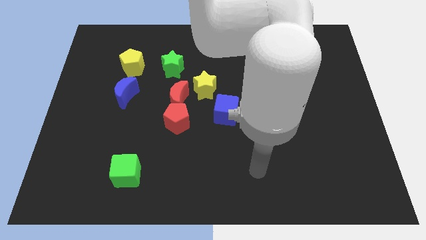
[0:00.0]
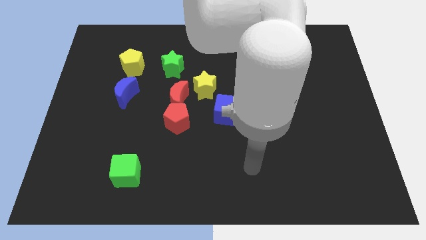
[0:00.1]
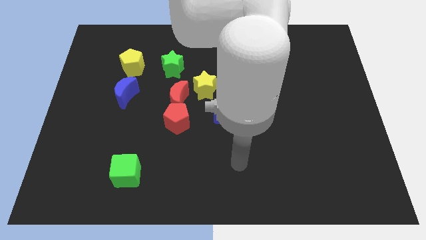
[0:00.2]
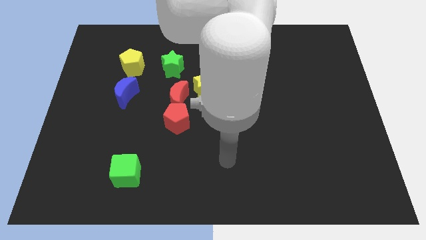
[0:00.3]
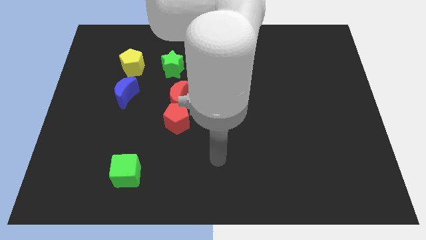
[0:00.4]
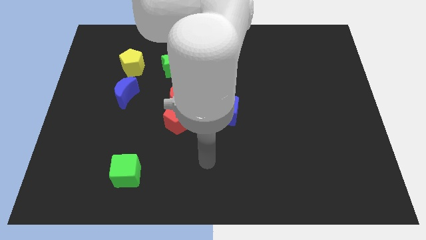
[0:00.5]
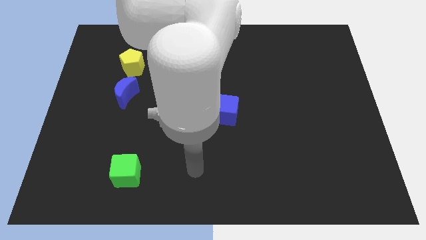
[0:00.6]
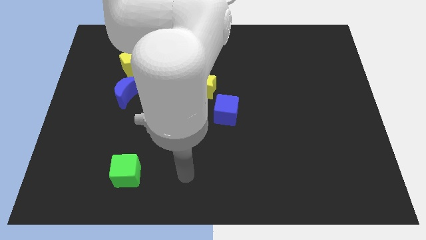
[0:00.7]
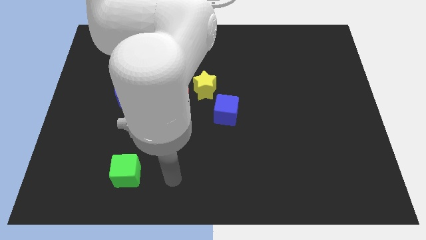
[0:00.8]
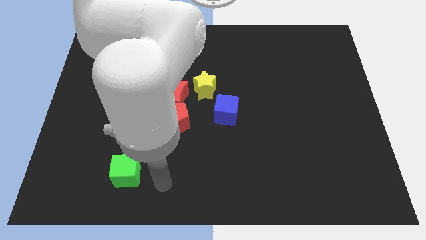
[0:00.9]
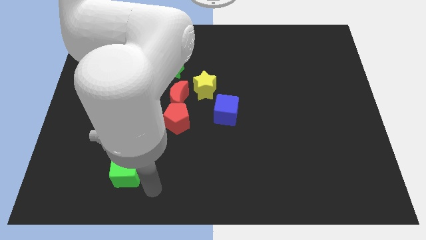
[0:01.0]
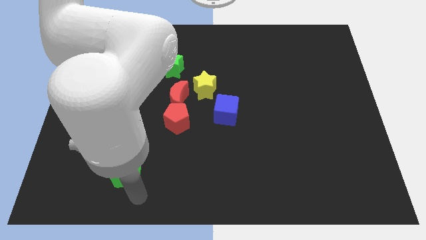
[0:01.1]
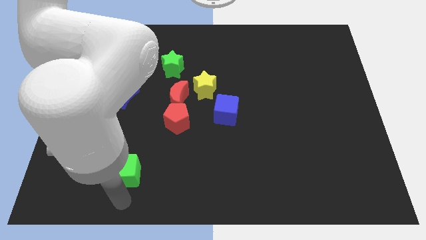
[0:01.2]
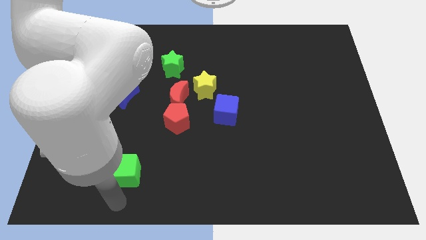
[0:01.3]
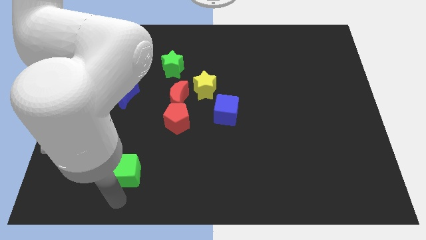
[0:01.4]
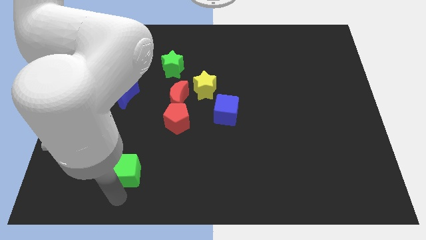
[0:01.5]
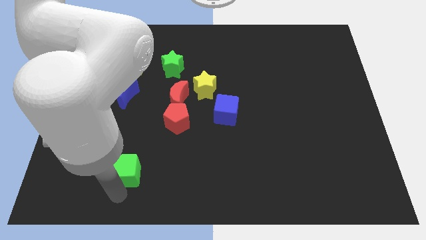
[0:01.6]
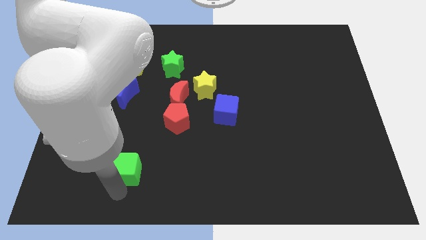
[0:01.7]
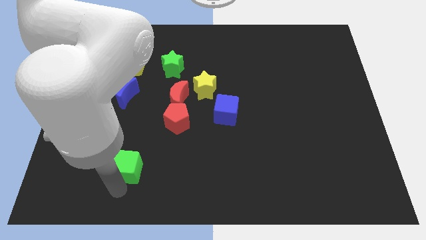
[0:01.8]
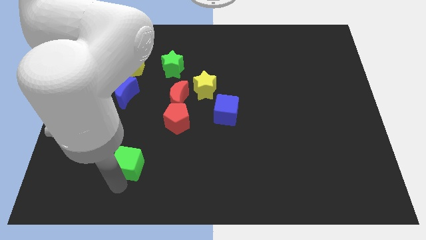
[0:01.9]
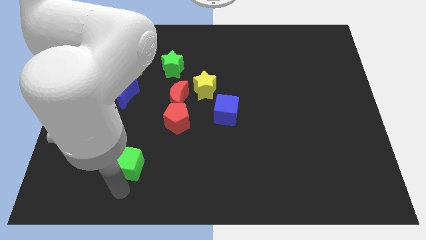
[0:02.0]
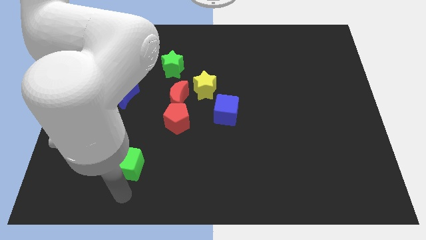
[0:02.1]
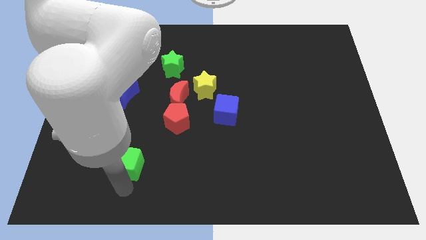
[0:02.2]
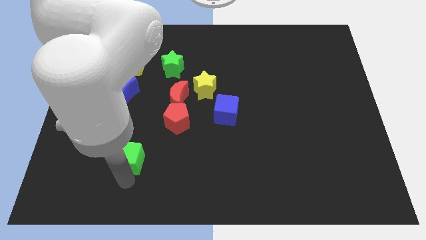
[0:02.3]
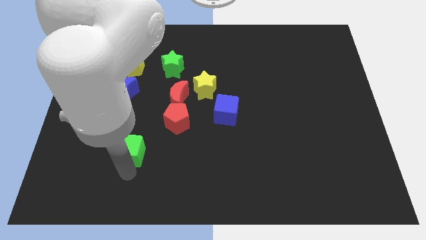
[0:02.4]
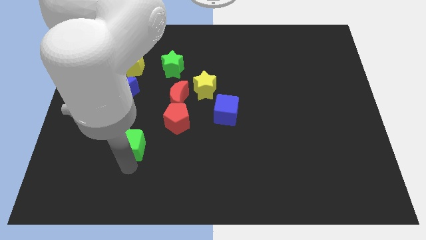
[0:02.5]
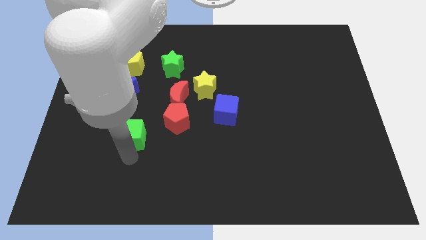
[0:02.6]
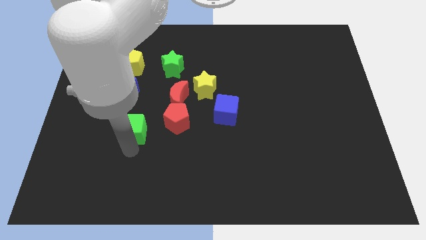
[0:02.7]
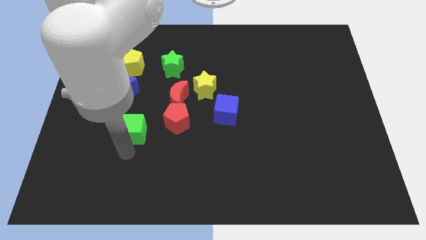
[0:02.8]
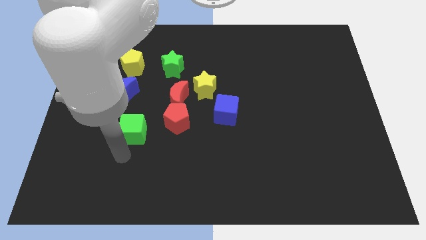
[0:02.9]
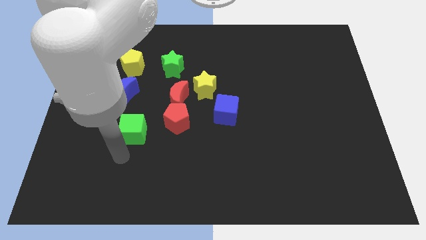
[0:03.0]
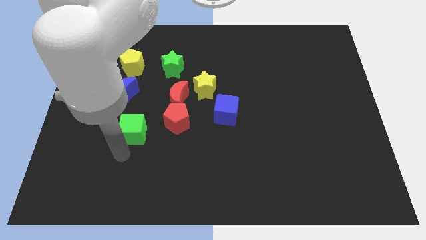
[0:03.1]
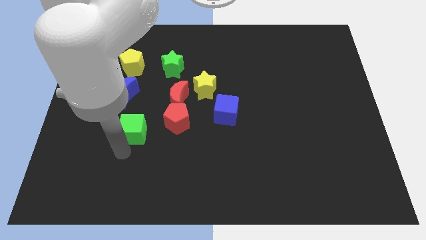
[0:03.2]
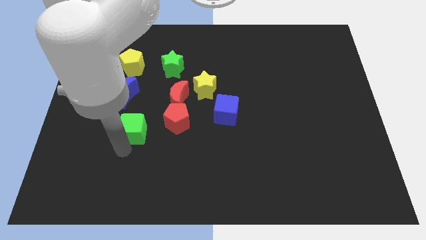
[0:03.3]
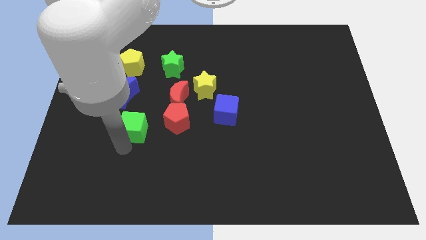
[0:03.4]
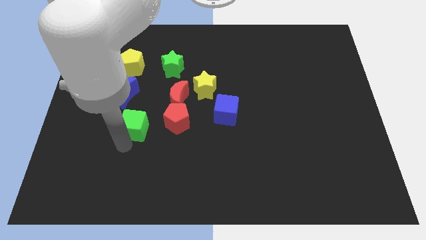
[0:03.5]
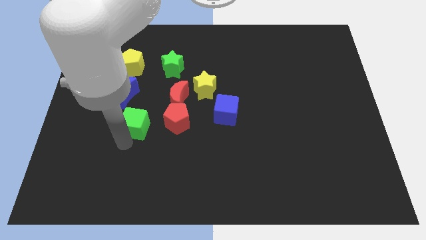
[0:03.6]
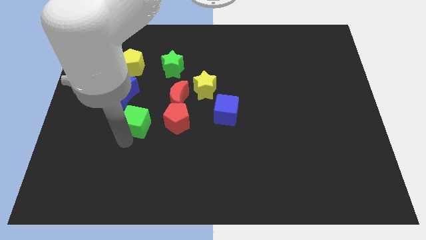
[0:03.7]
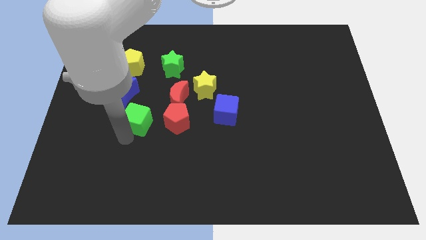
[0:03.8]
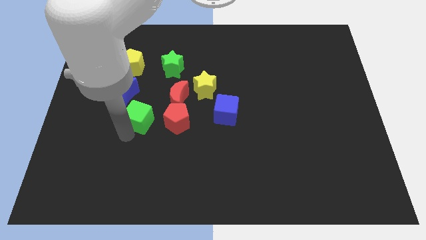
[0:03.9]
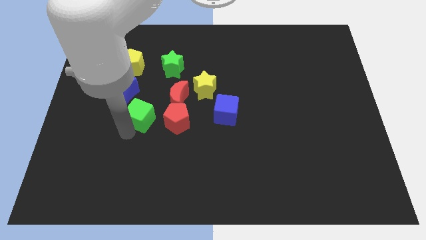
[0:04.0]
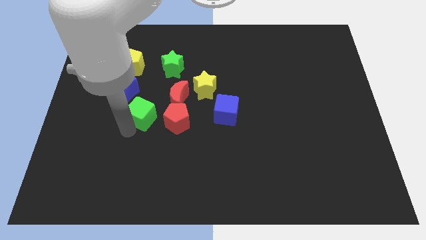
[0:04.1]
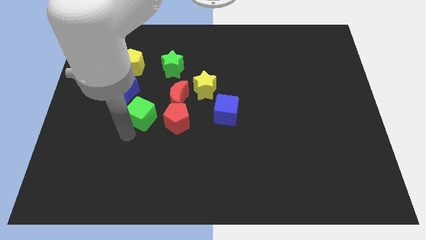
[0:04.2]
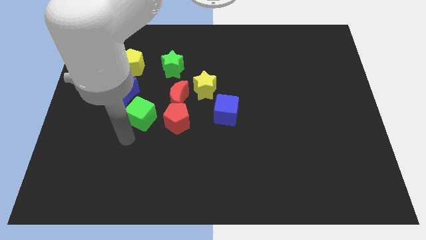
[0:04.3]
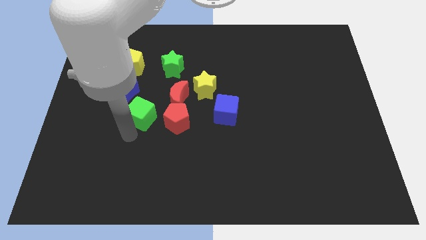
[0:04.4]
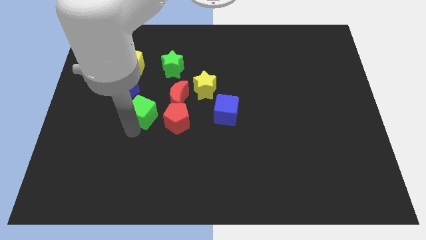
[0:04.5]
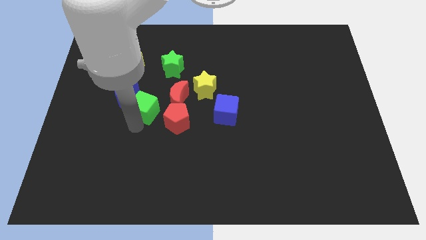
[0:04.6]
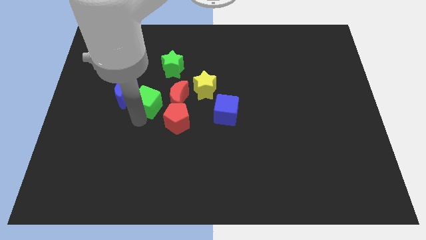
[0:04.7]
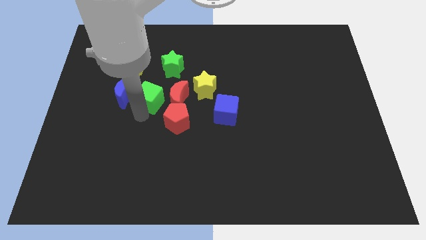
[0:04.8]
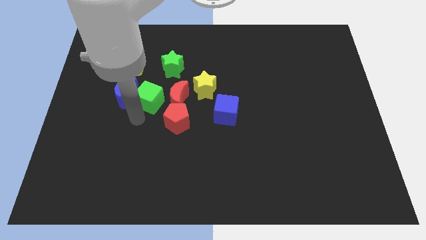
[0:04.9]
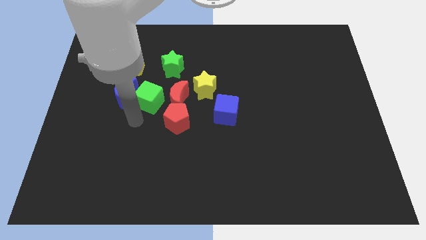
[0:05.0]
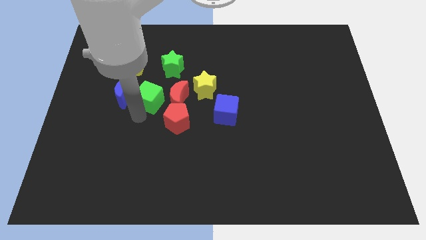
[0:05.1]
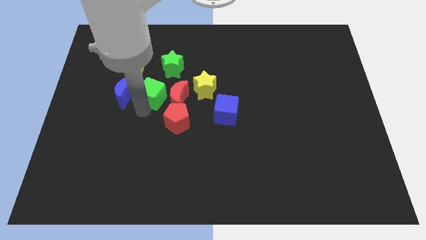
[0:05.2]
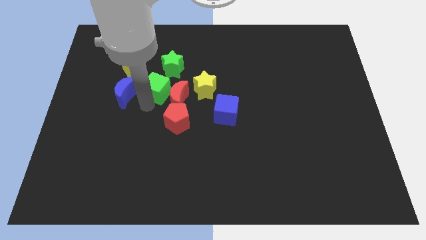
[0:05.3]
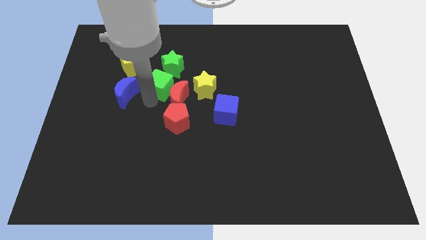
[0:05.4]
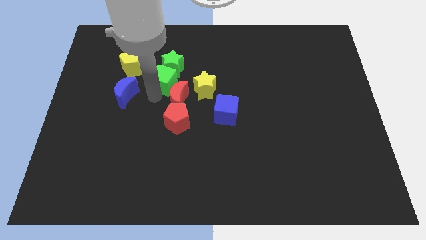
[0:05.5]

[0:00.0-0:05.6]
move the green cube towards the green star

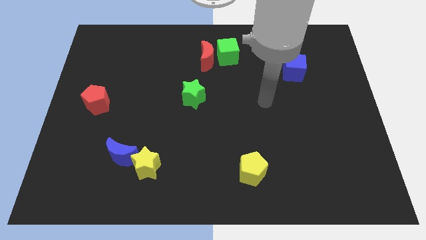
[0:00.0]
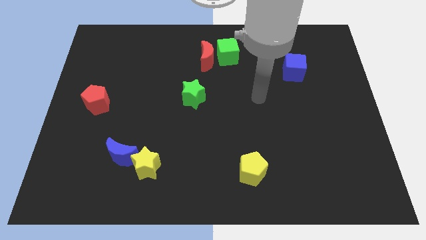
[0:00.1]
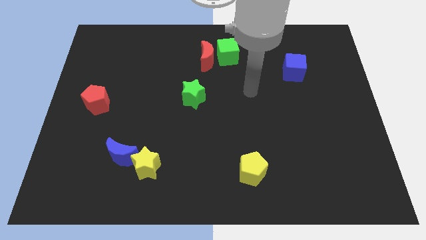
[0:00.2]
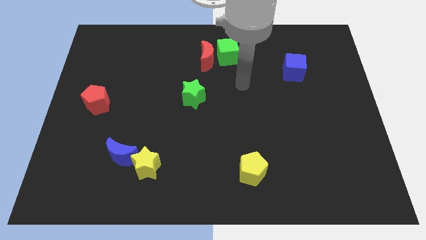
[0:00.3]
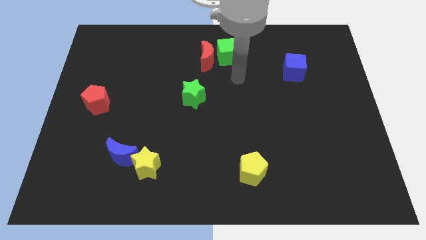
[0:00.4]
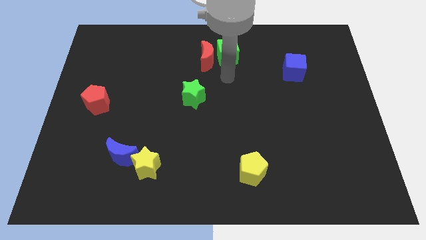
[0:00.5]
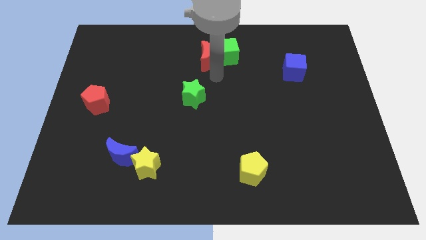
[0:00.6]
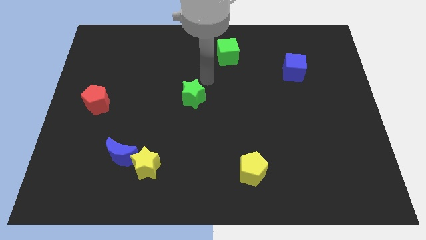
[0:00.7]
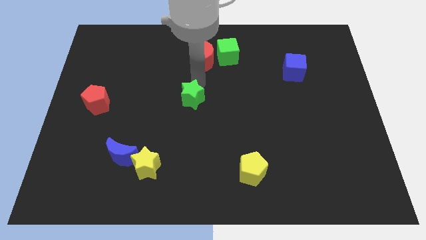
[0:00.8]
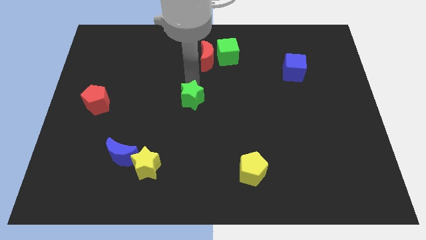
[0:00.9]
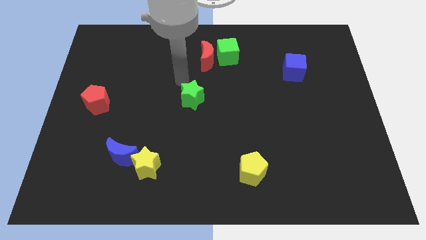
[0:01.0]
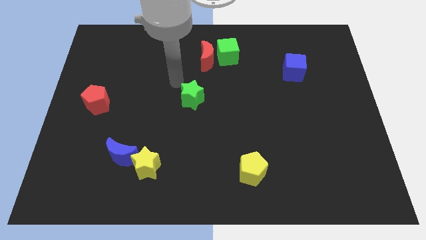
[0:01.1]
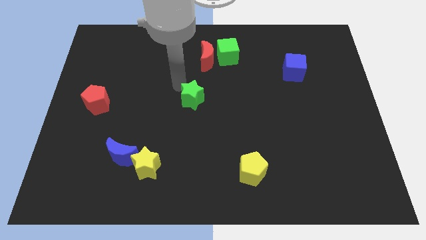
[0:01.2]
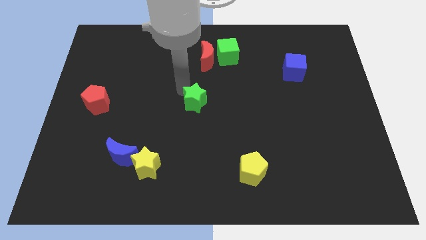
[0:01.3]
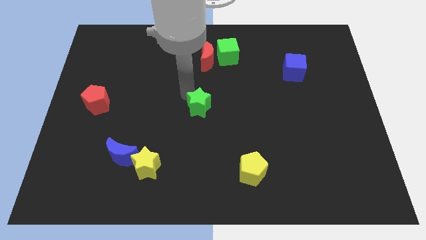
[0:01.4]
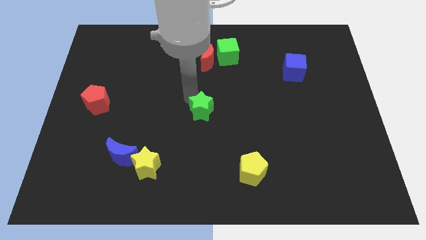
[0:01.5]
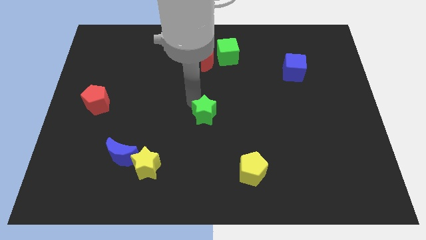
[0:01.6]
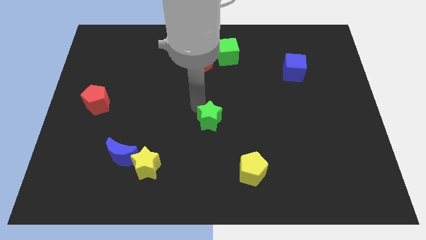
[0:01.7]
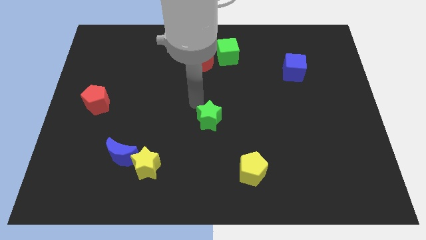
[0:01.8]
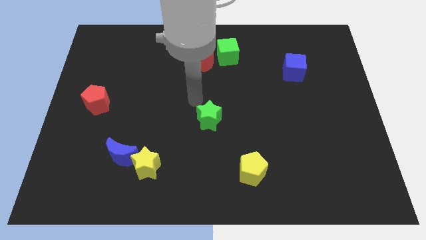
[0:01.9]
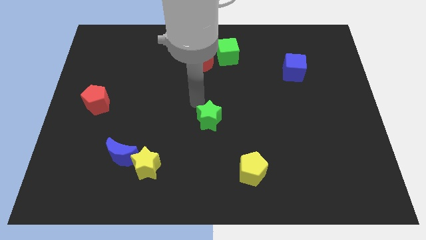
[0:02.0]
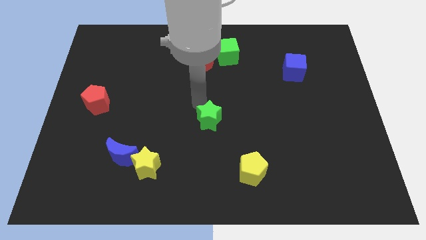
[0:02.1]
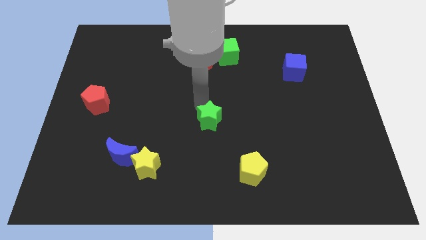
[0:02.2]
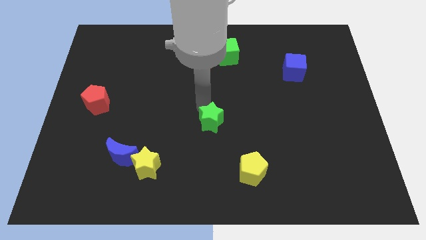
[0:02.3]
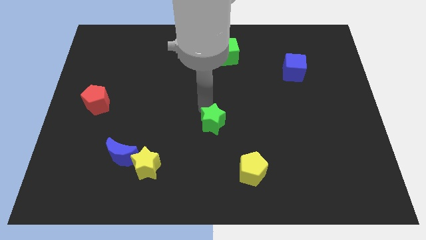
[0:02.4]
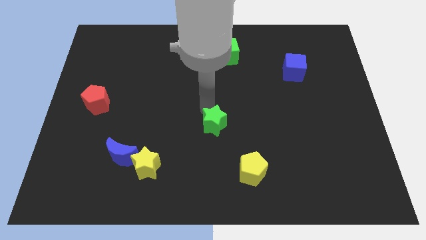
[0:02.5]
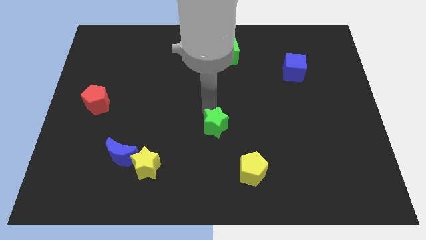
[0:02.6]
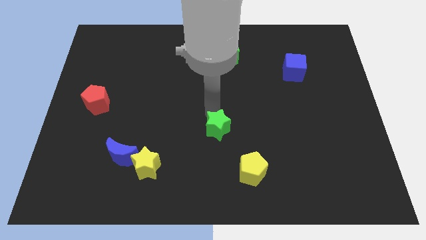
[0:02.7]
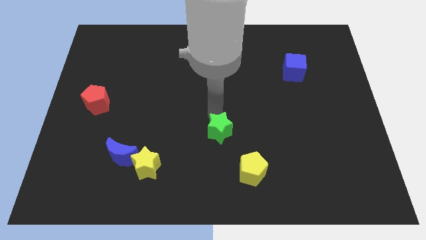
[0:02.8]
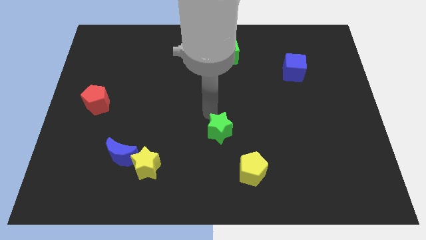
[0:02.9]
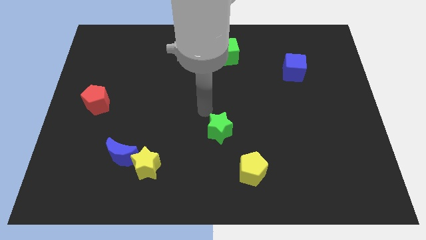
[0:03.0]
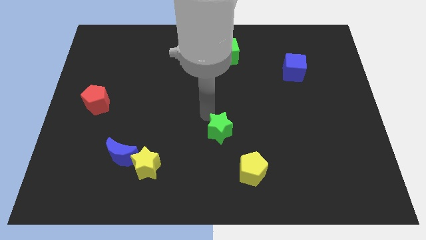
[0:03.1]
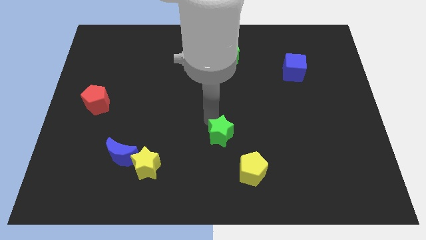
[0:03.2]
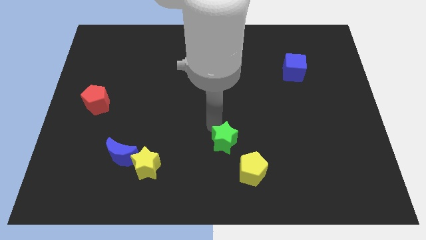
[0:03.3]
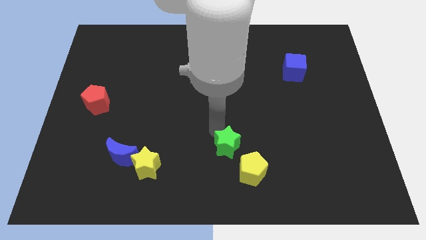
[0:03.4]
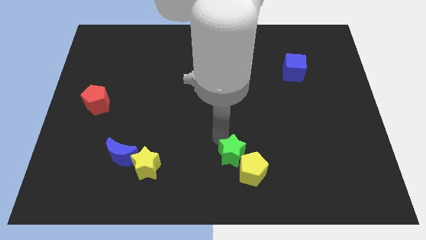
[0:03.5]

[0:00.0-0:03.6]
move the green star to the yellow pentagon
